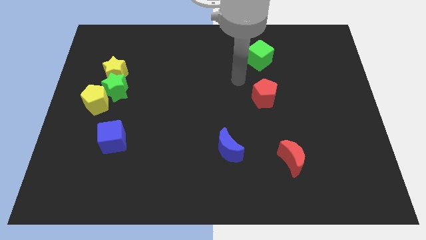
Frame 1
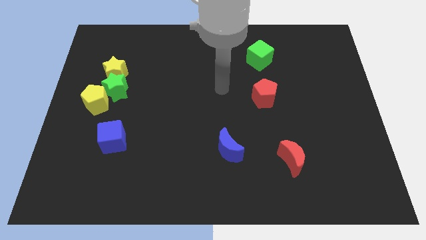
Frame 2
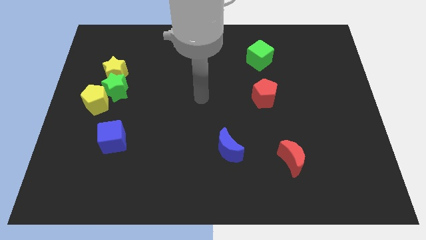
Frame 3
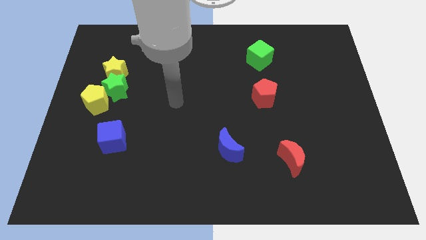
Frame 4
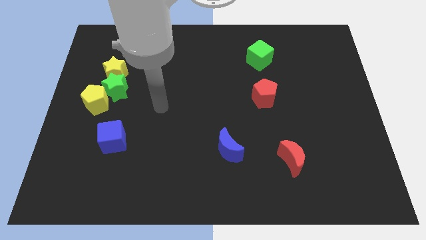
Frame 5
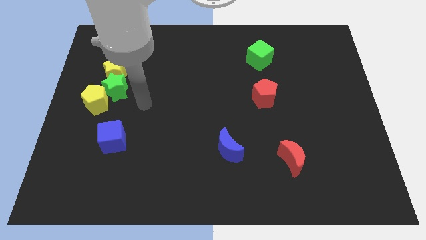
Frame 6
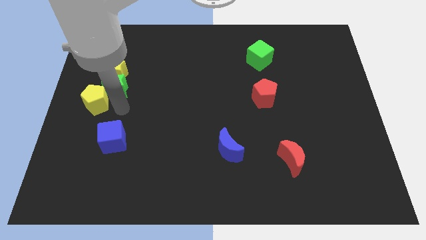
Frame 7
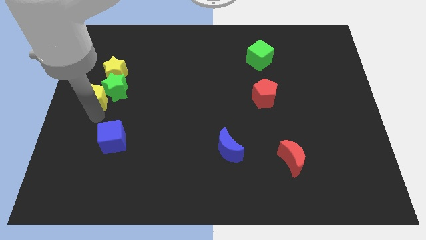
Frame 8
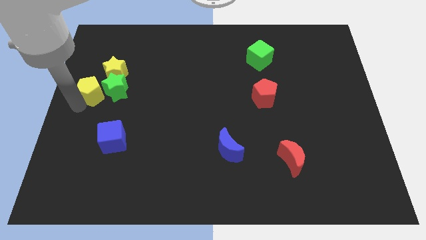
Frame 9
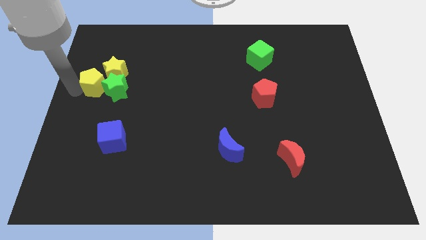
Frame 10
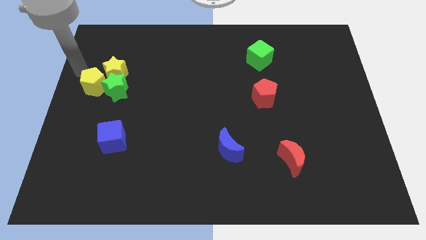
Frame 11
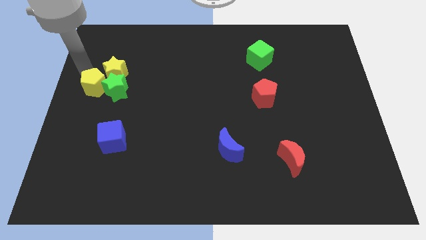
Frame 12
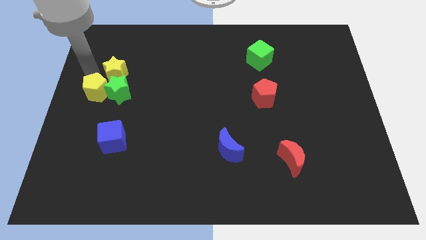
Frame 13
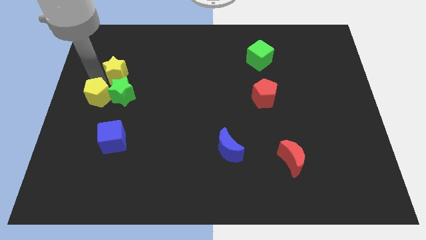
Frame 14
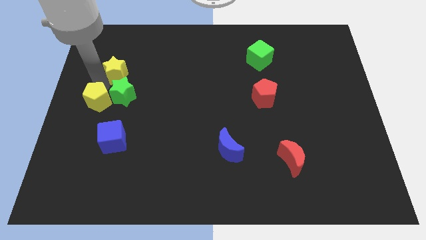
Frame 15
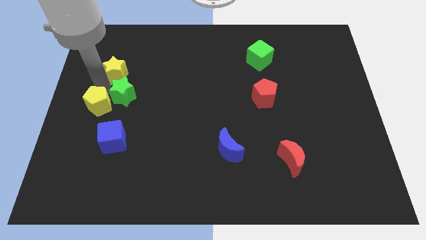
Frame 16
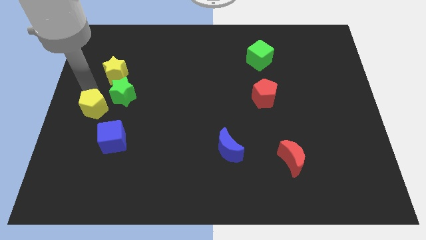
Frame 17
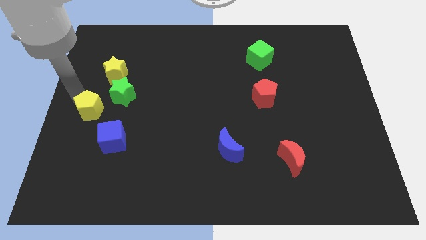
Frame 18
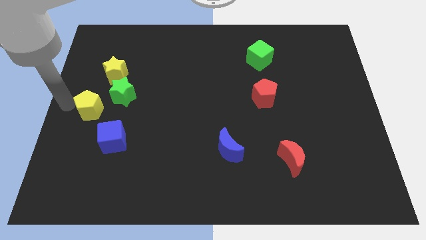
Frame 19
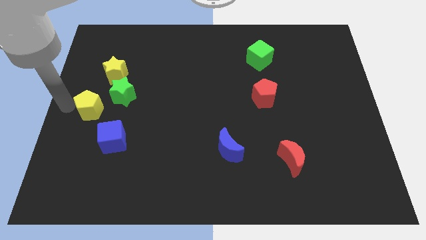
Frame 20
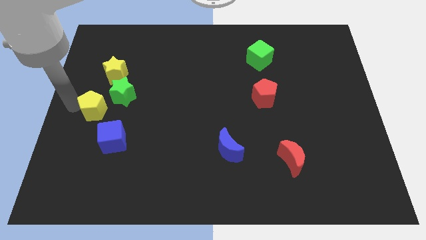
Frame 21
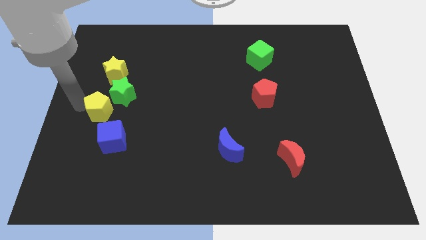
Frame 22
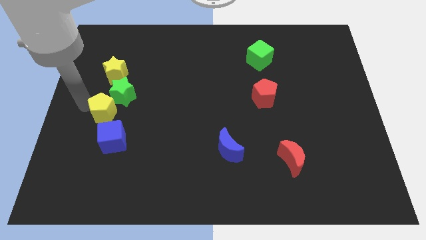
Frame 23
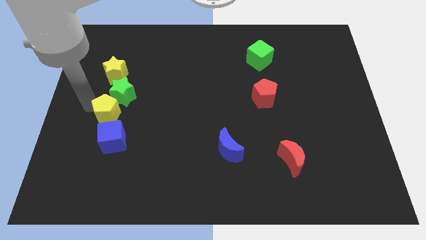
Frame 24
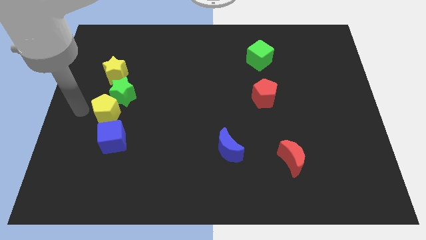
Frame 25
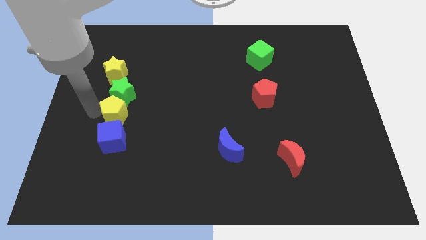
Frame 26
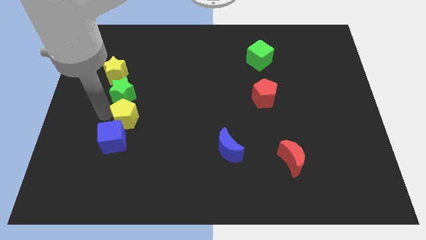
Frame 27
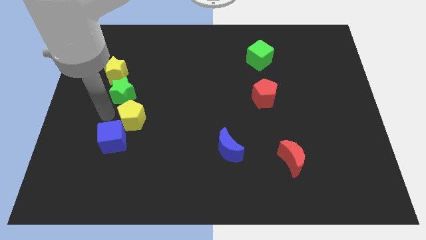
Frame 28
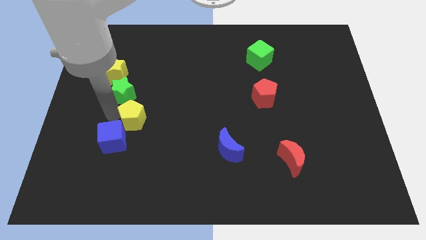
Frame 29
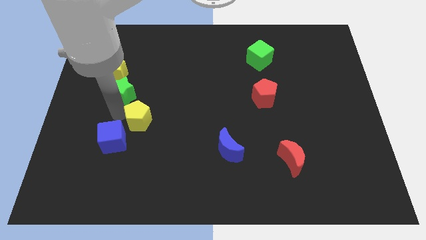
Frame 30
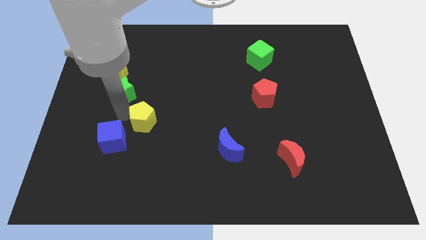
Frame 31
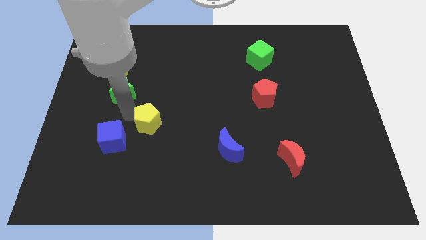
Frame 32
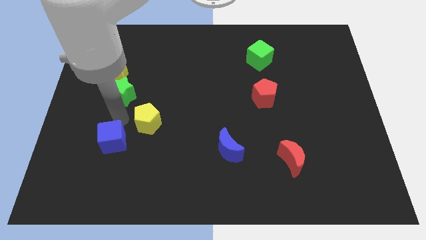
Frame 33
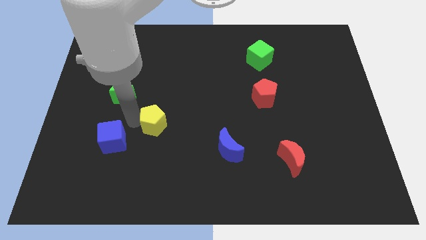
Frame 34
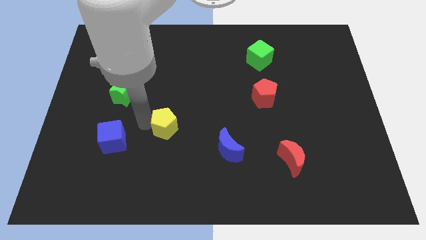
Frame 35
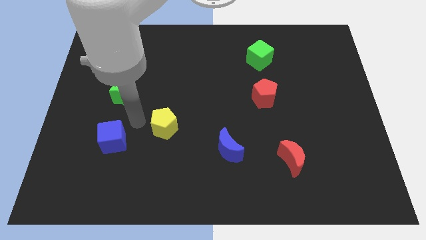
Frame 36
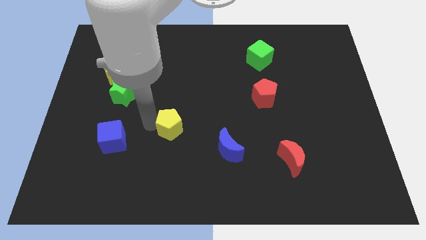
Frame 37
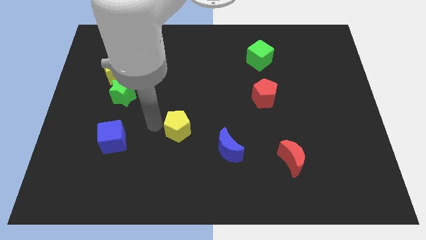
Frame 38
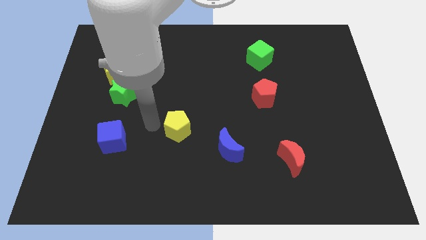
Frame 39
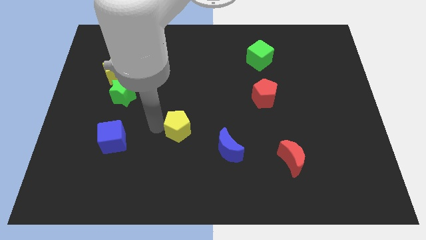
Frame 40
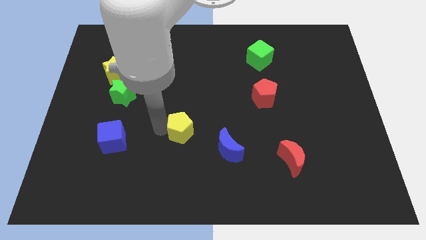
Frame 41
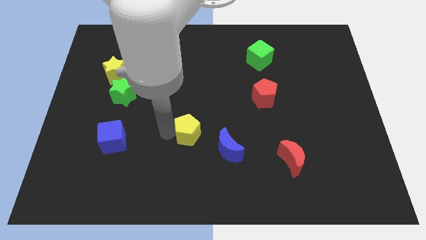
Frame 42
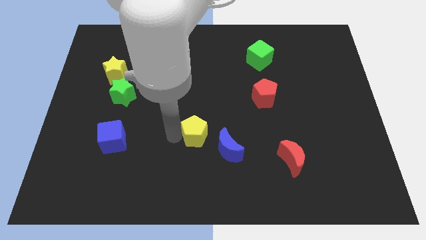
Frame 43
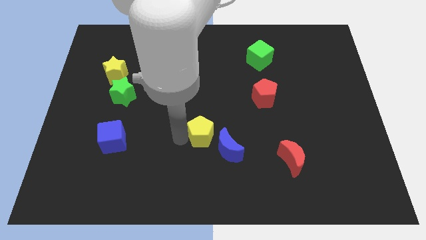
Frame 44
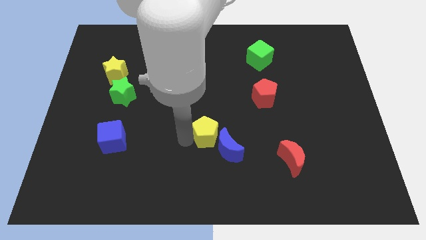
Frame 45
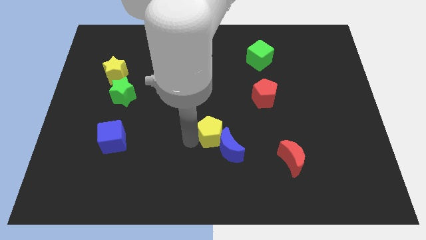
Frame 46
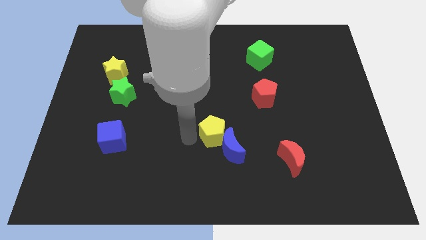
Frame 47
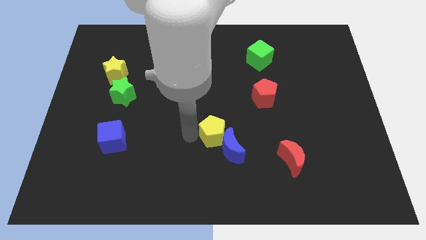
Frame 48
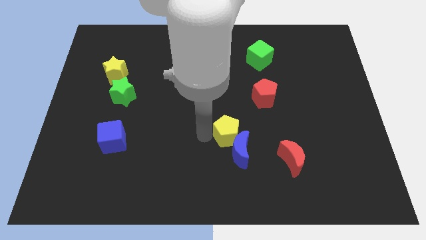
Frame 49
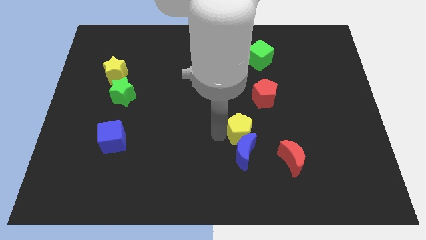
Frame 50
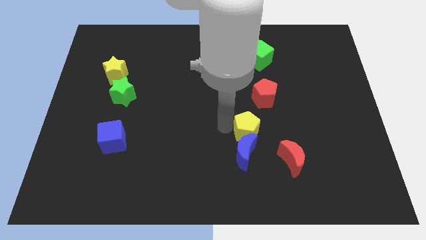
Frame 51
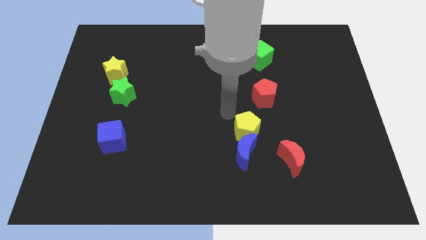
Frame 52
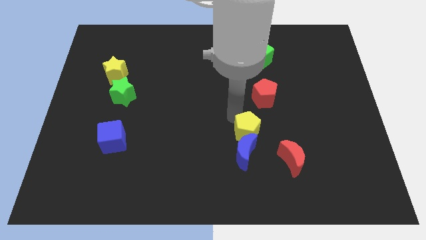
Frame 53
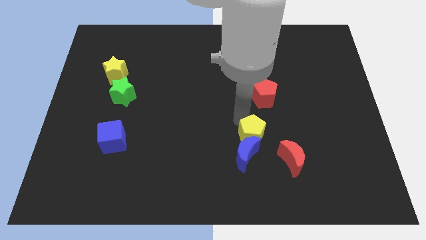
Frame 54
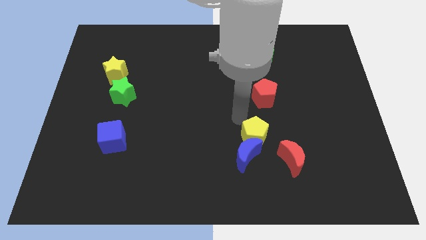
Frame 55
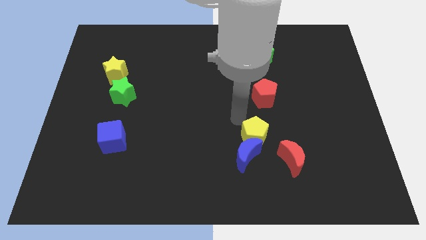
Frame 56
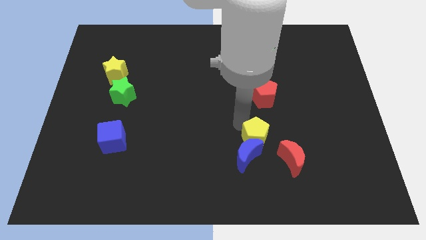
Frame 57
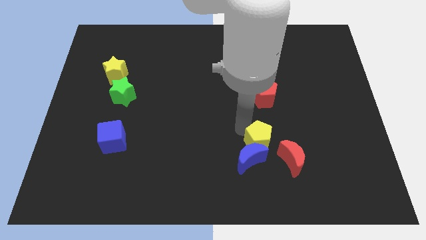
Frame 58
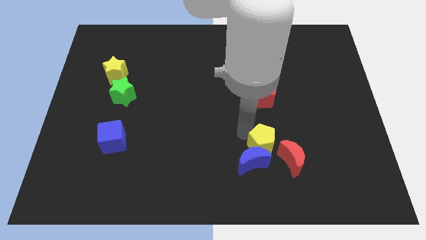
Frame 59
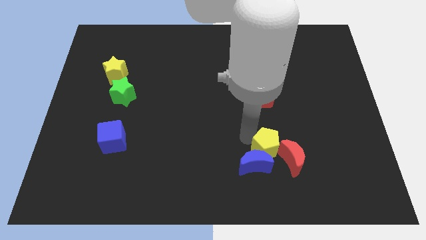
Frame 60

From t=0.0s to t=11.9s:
slide the yellow pentagon close to the red moon

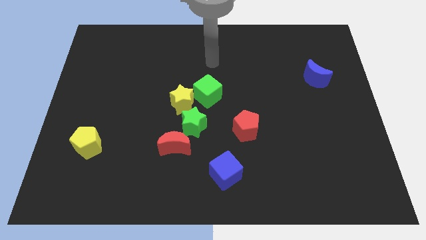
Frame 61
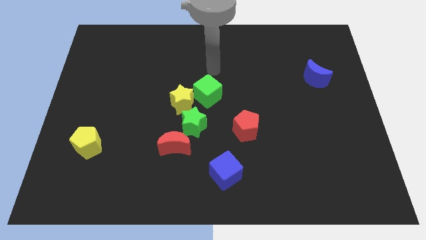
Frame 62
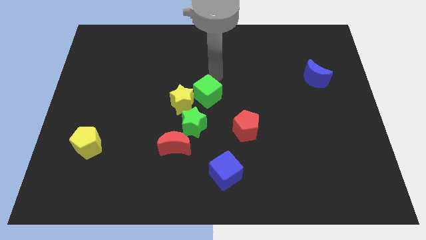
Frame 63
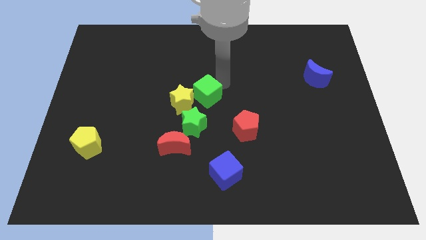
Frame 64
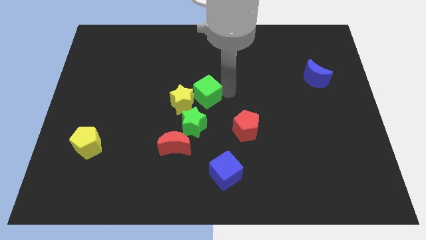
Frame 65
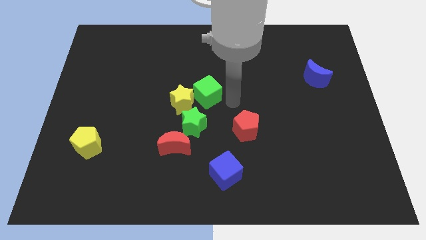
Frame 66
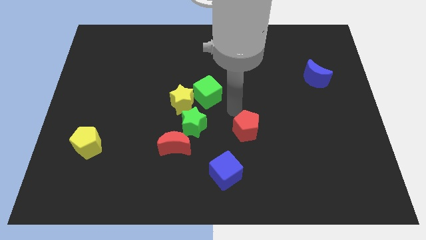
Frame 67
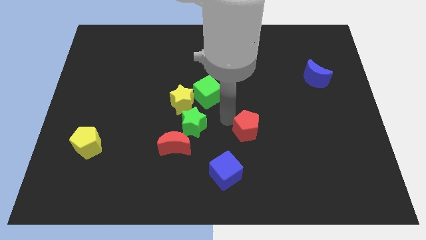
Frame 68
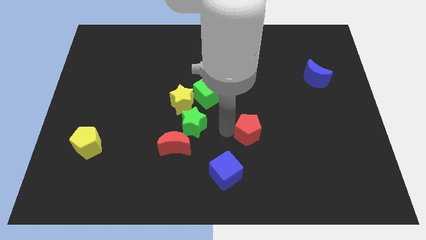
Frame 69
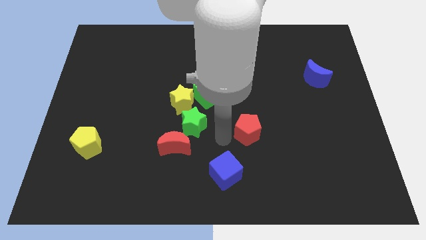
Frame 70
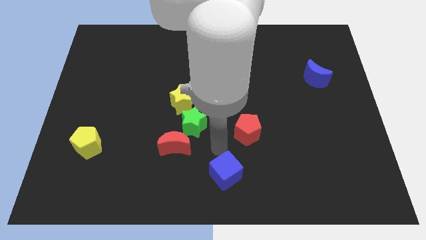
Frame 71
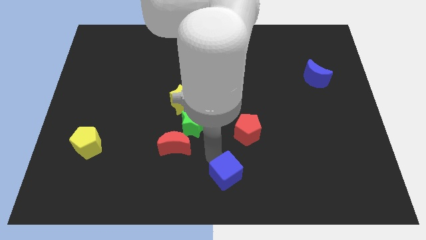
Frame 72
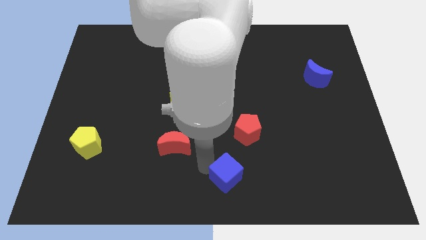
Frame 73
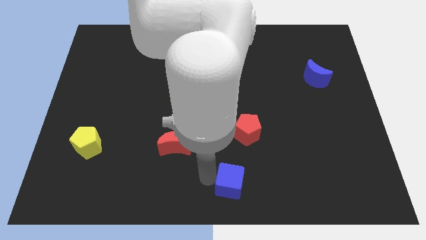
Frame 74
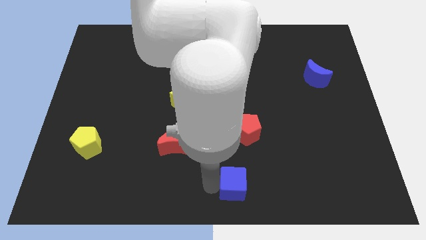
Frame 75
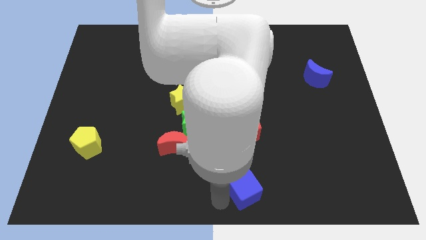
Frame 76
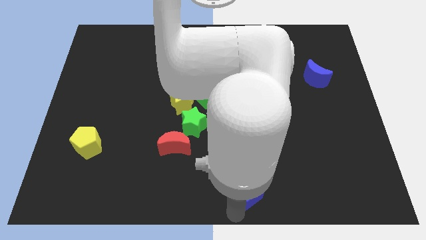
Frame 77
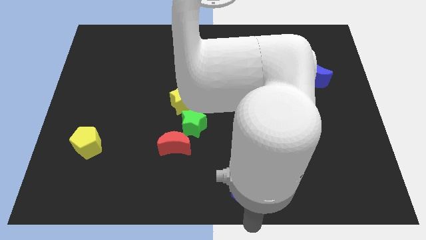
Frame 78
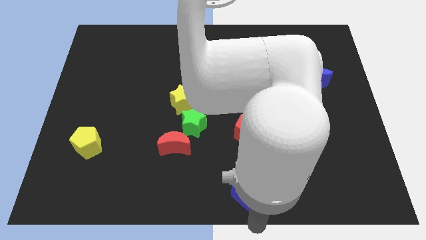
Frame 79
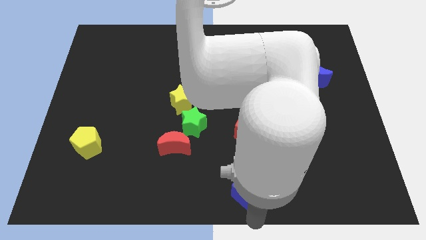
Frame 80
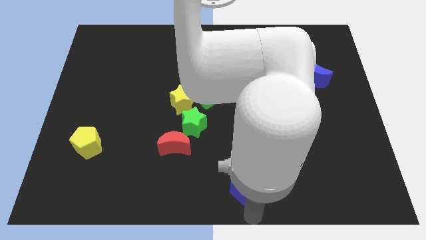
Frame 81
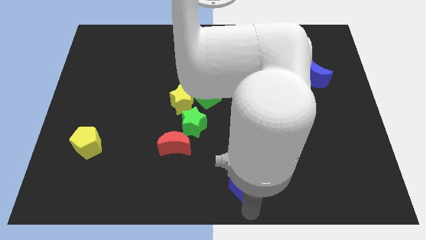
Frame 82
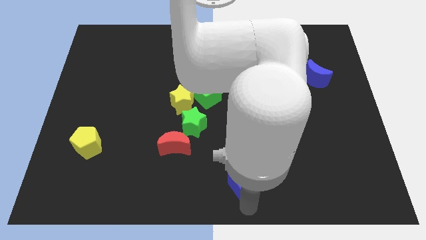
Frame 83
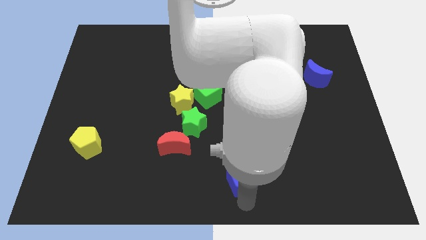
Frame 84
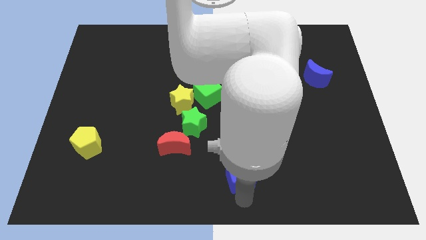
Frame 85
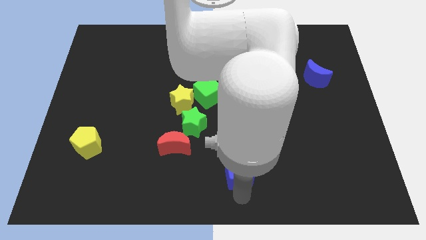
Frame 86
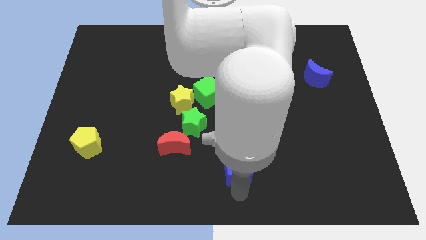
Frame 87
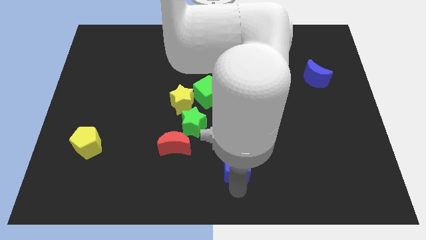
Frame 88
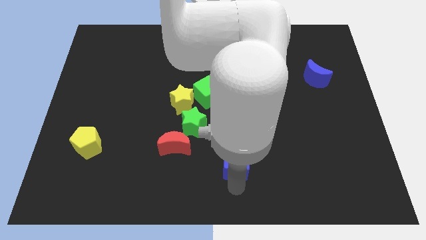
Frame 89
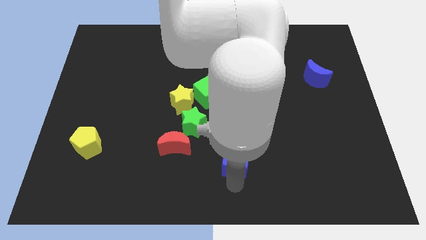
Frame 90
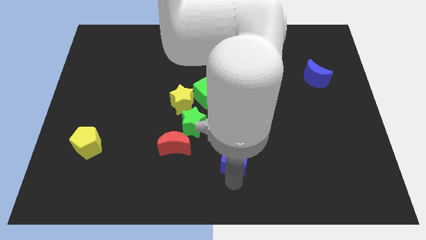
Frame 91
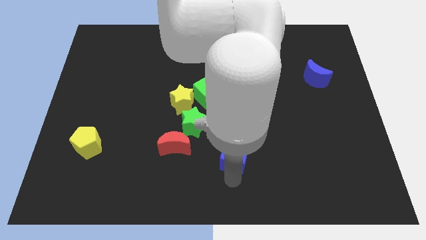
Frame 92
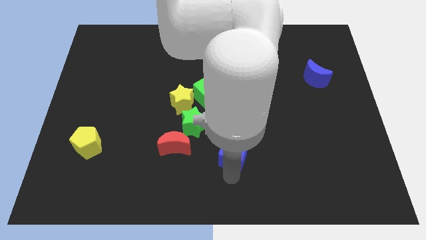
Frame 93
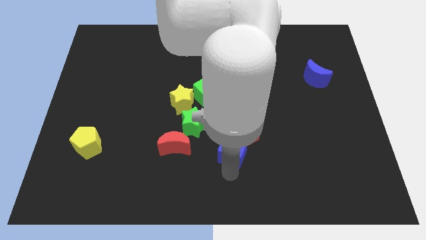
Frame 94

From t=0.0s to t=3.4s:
slide the blue cube towards the red pentagon
